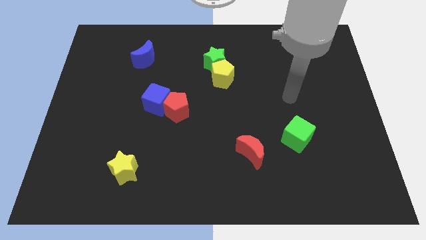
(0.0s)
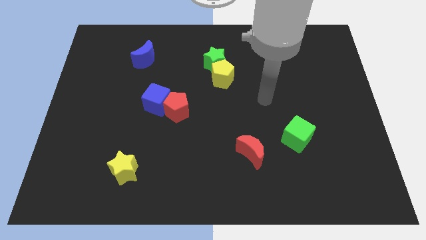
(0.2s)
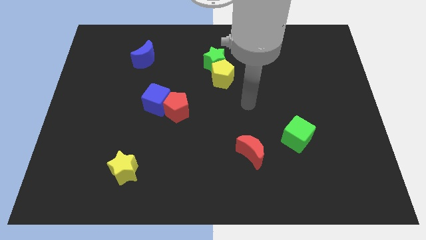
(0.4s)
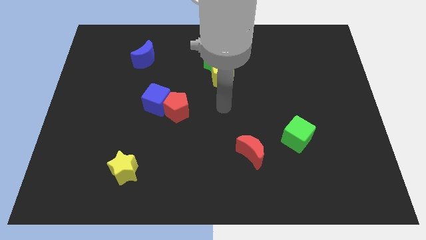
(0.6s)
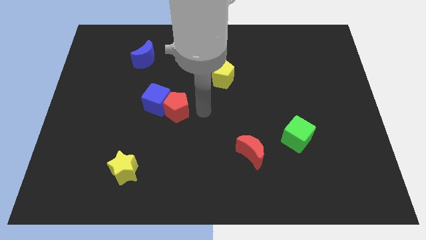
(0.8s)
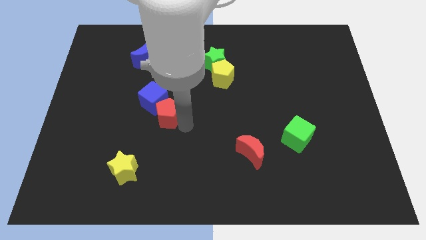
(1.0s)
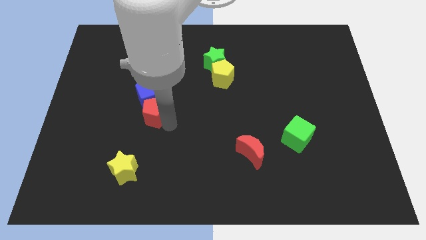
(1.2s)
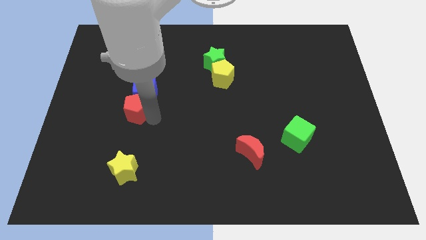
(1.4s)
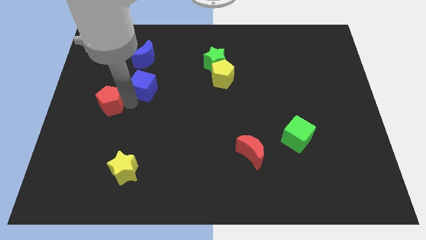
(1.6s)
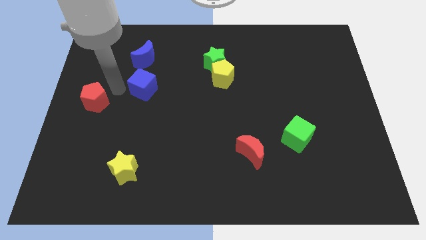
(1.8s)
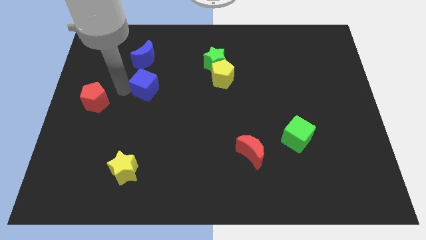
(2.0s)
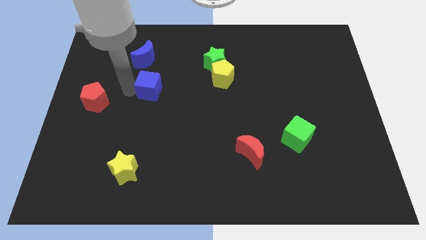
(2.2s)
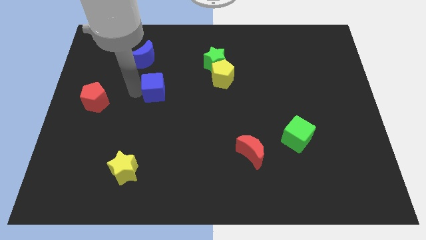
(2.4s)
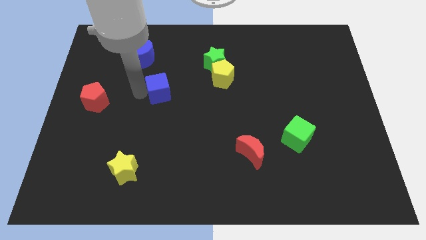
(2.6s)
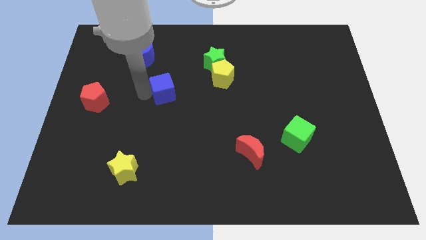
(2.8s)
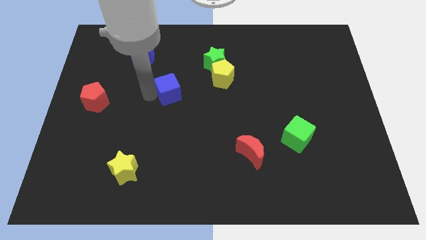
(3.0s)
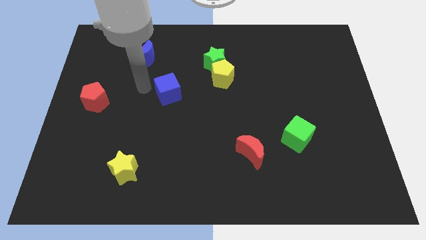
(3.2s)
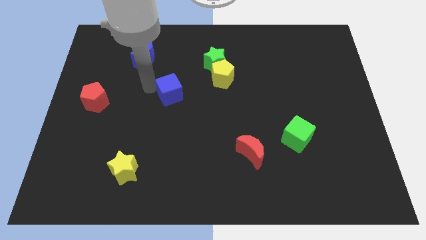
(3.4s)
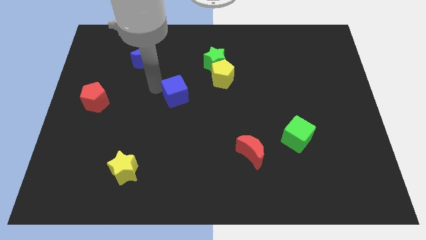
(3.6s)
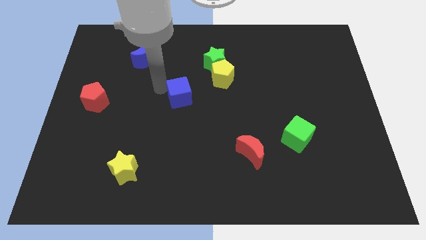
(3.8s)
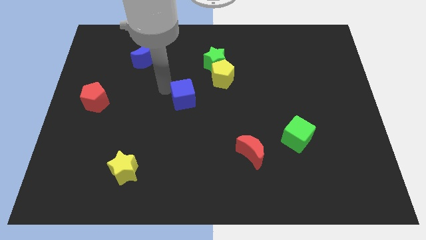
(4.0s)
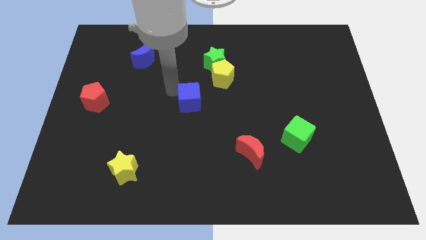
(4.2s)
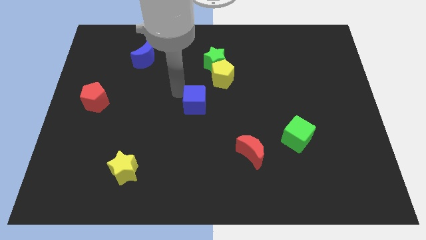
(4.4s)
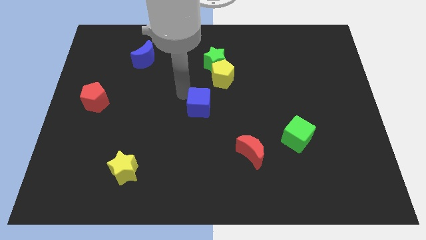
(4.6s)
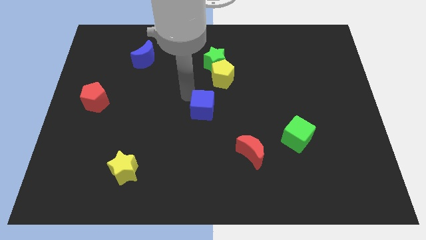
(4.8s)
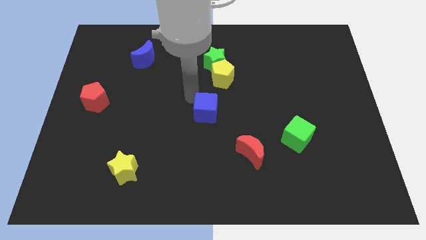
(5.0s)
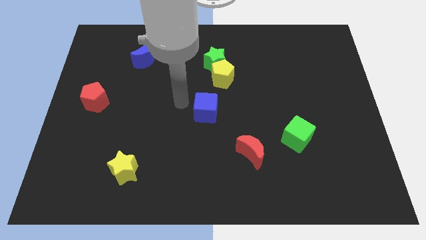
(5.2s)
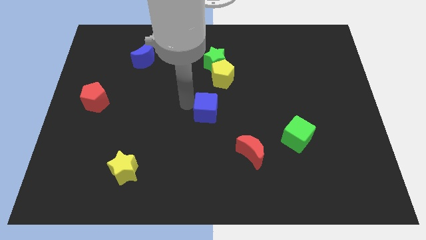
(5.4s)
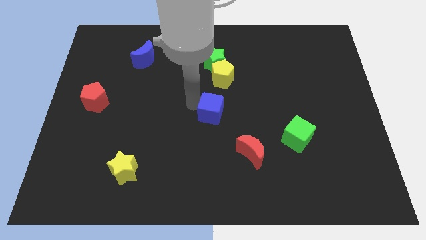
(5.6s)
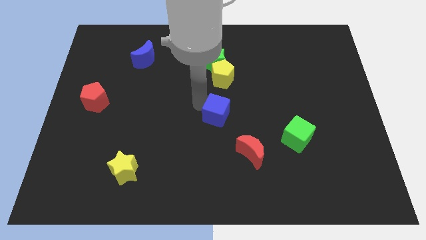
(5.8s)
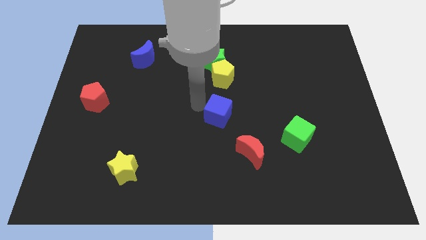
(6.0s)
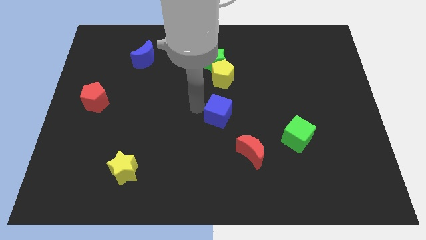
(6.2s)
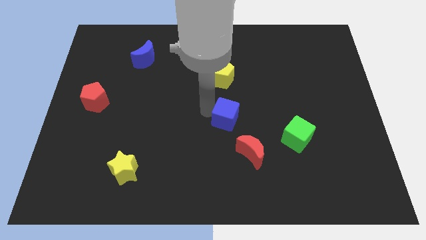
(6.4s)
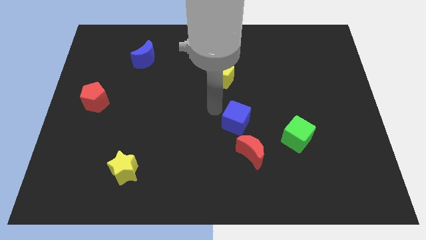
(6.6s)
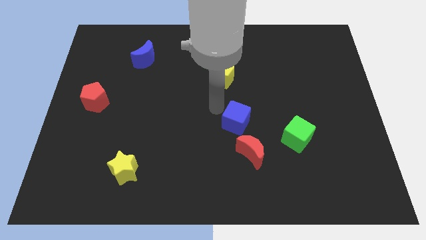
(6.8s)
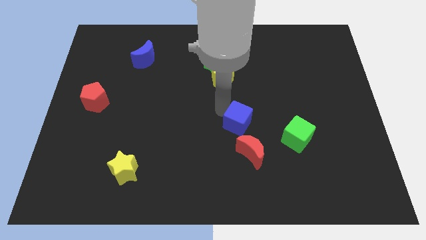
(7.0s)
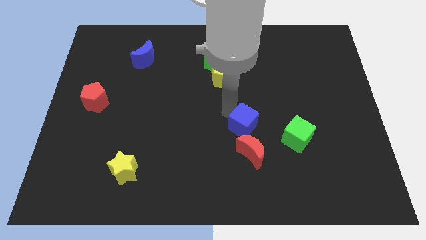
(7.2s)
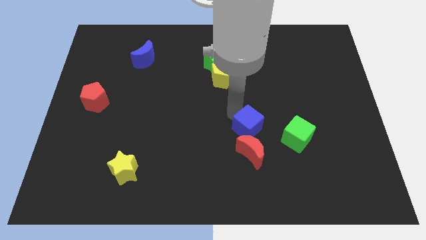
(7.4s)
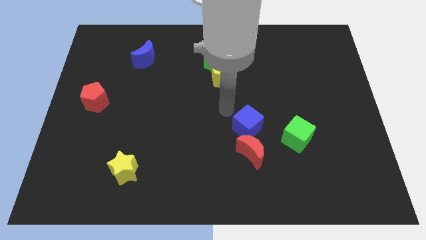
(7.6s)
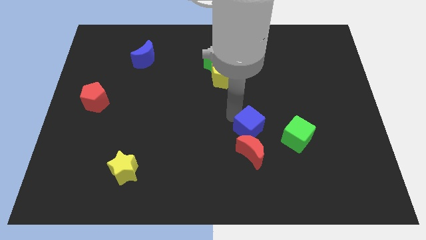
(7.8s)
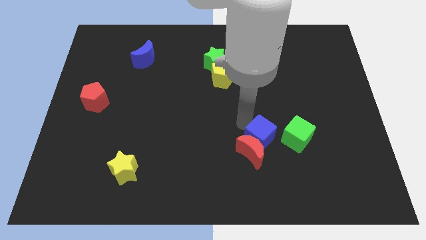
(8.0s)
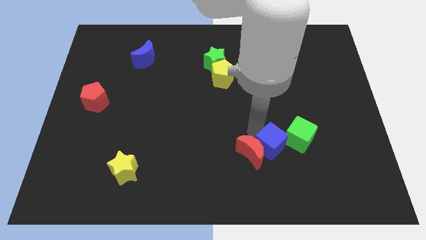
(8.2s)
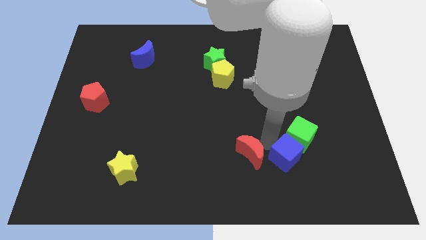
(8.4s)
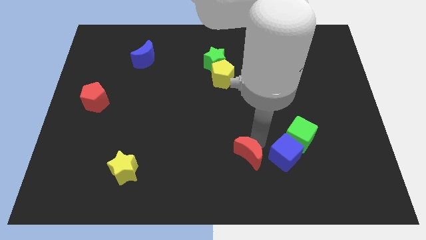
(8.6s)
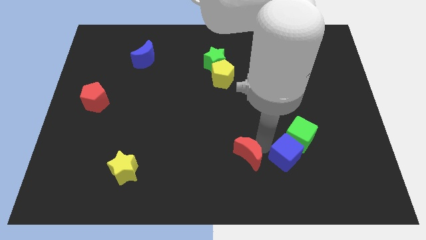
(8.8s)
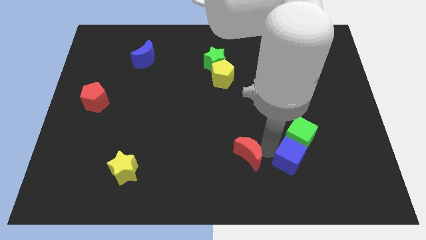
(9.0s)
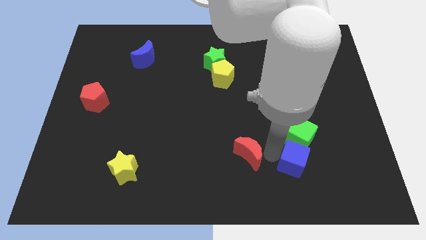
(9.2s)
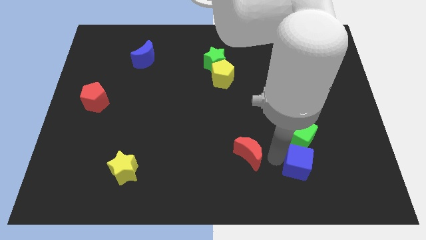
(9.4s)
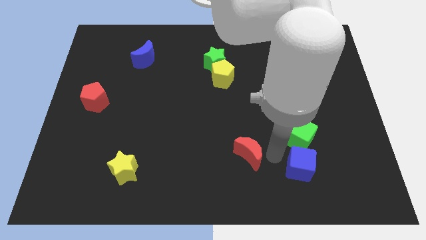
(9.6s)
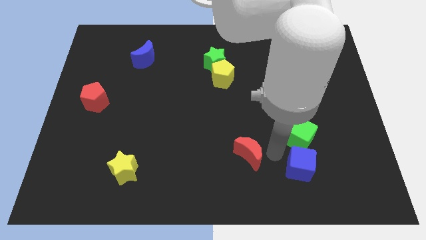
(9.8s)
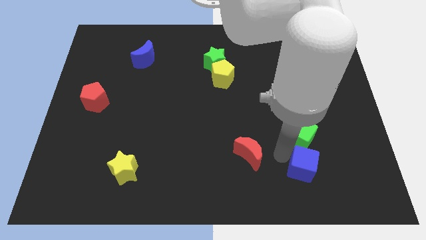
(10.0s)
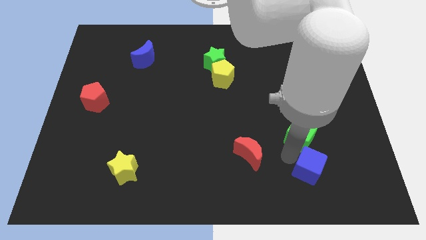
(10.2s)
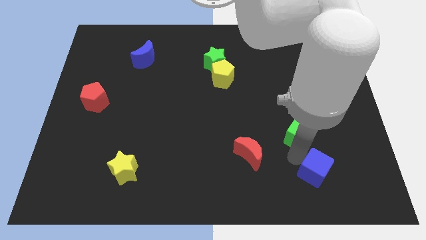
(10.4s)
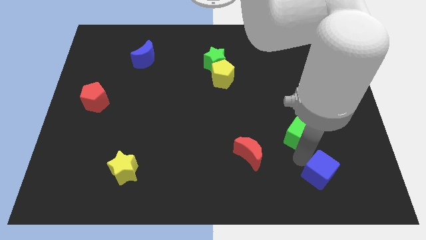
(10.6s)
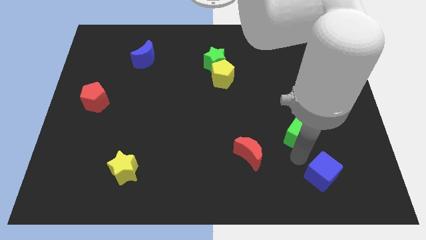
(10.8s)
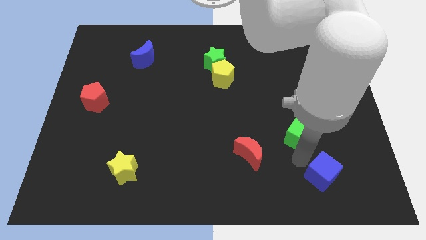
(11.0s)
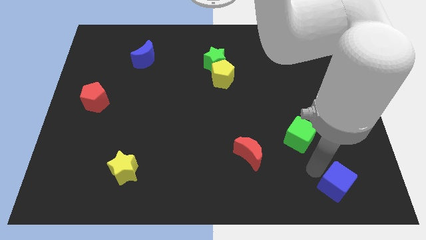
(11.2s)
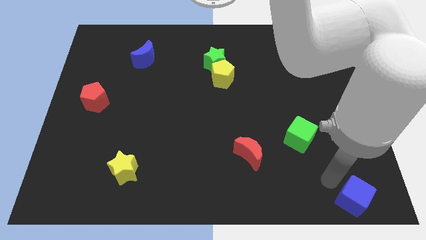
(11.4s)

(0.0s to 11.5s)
push the blue cube to the bottom right

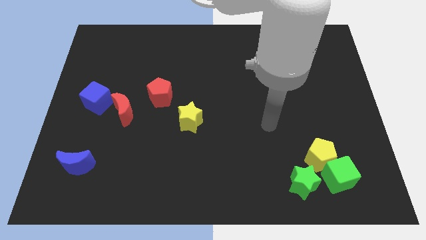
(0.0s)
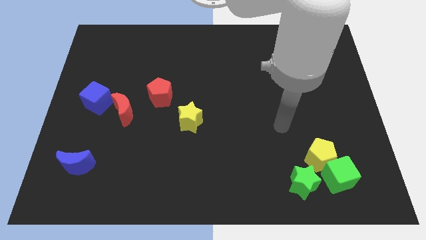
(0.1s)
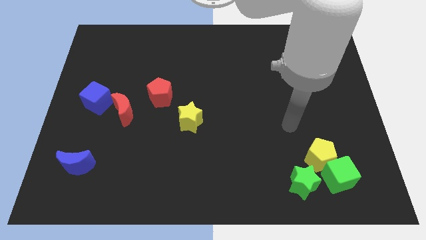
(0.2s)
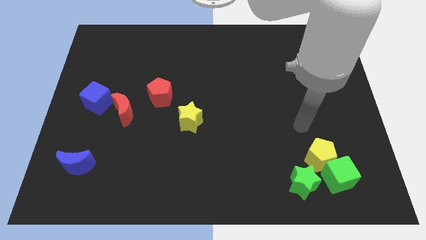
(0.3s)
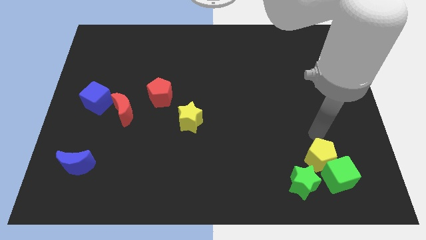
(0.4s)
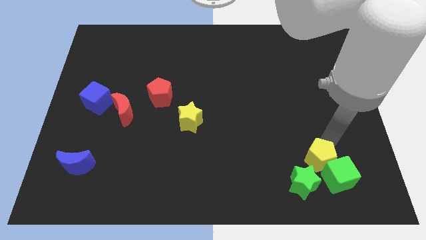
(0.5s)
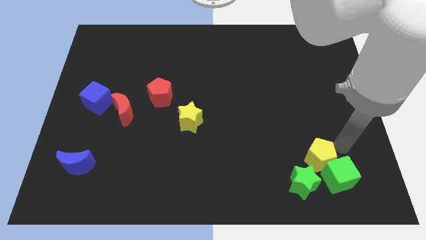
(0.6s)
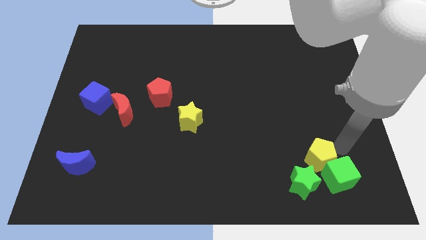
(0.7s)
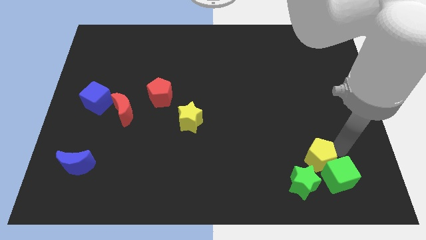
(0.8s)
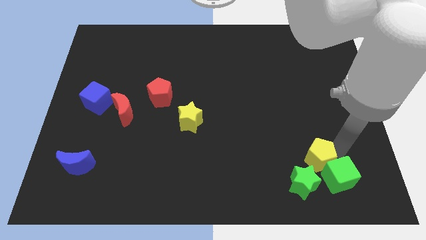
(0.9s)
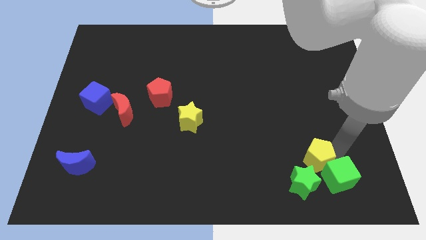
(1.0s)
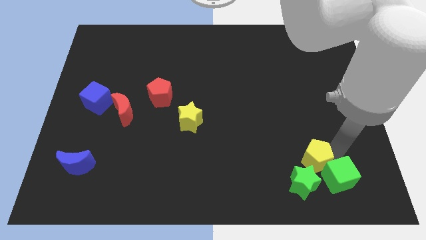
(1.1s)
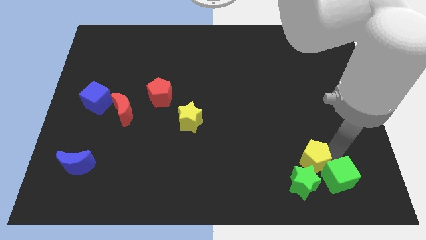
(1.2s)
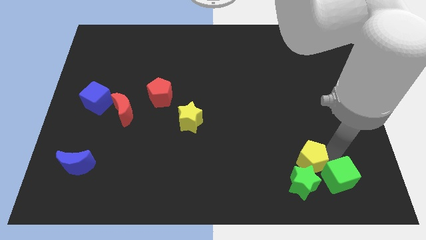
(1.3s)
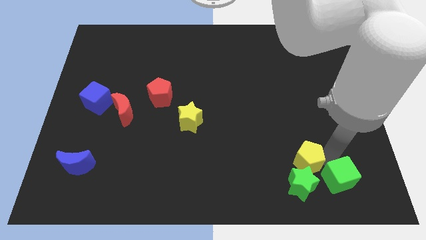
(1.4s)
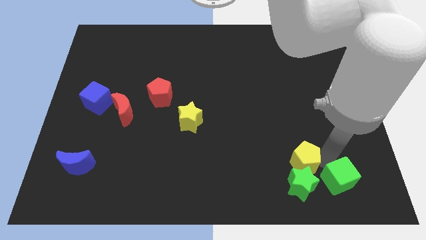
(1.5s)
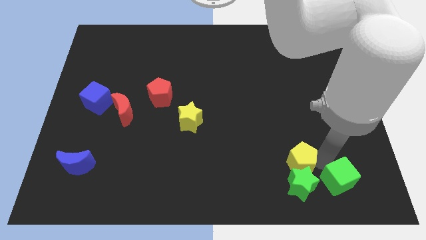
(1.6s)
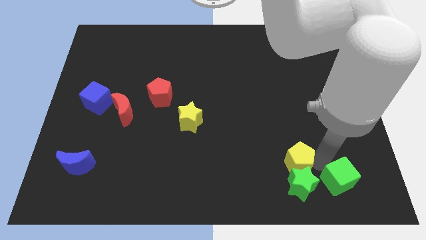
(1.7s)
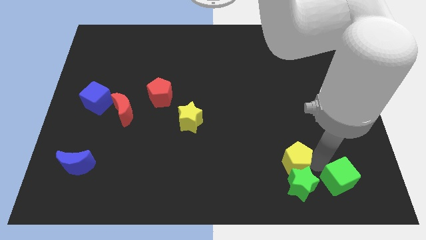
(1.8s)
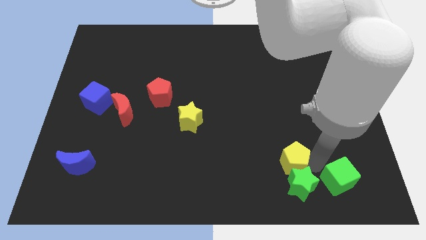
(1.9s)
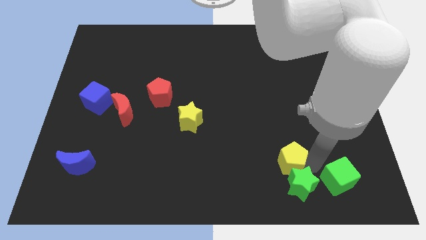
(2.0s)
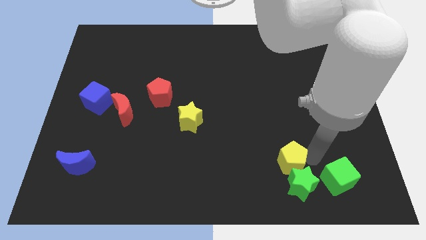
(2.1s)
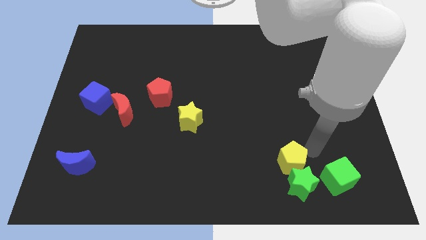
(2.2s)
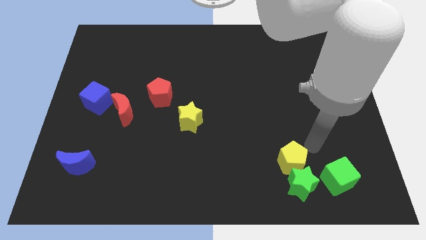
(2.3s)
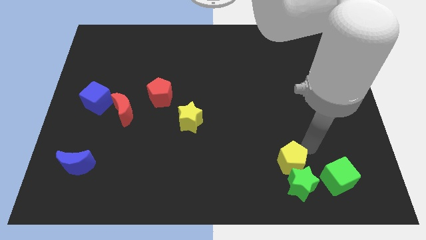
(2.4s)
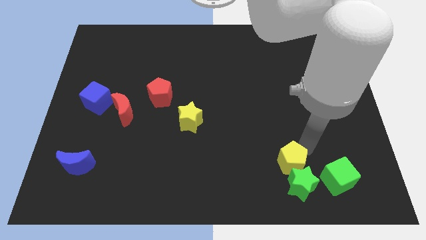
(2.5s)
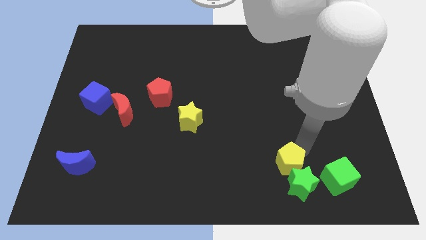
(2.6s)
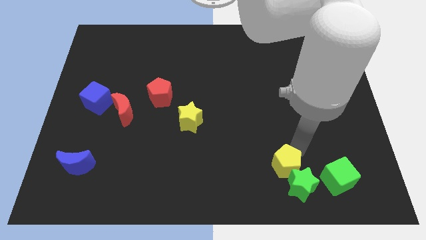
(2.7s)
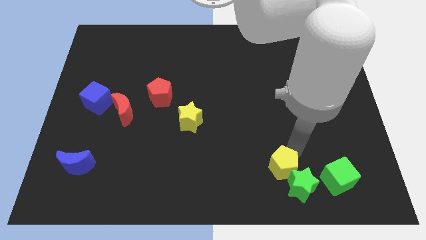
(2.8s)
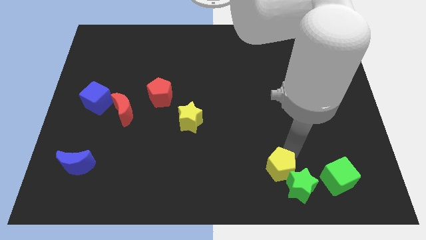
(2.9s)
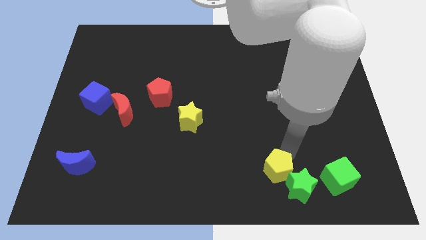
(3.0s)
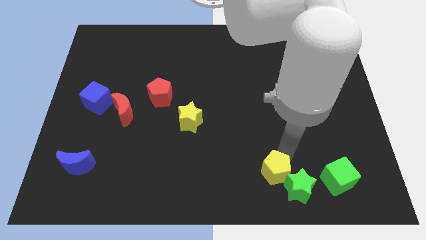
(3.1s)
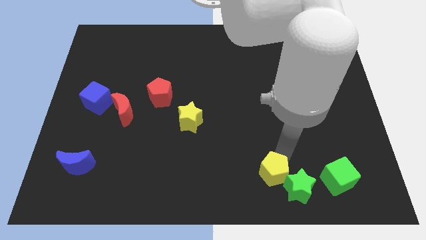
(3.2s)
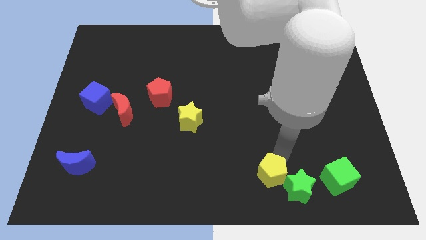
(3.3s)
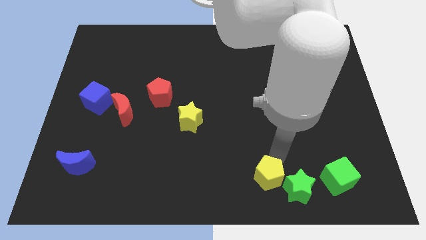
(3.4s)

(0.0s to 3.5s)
put the yellow pentagon to the bottom
